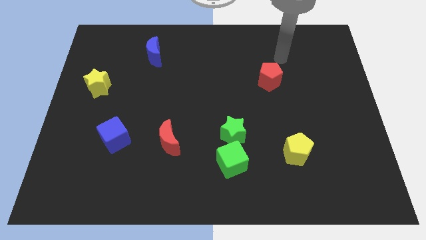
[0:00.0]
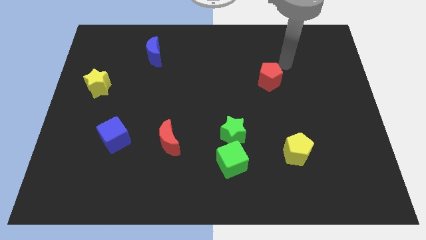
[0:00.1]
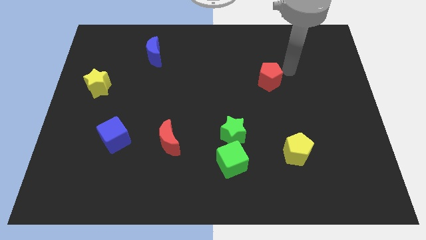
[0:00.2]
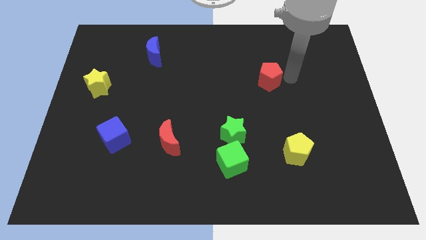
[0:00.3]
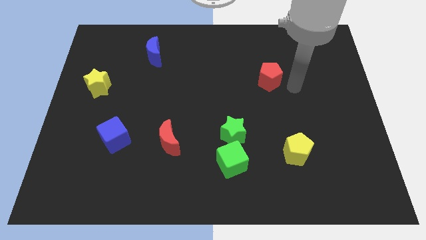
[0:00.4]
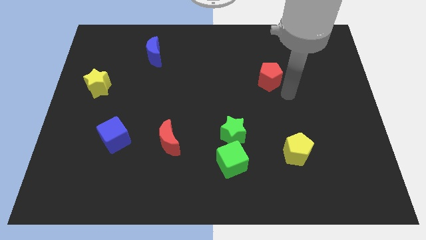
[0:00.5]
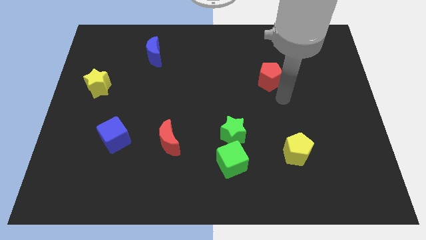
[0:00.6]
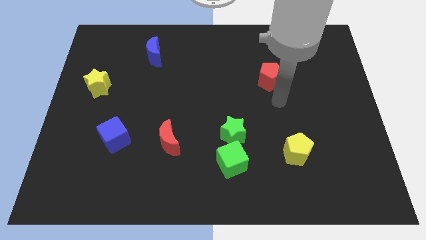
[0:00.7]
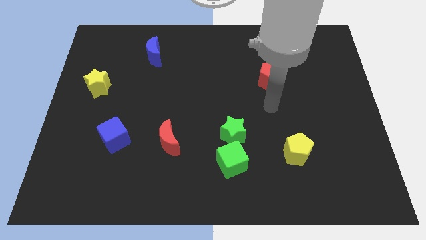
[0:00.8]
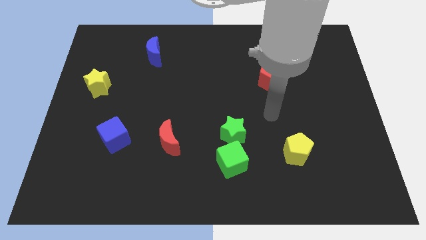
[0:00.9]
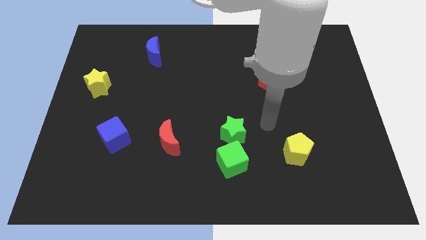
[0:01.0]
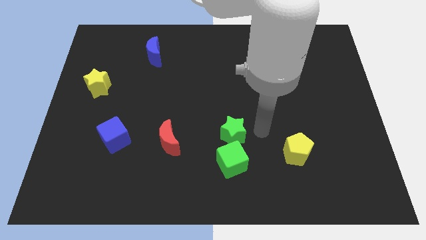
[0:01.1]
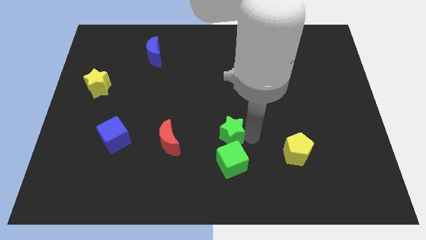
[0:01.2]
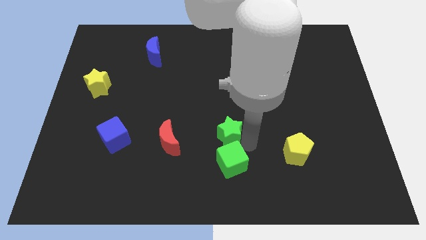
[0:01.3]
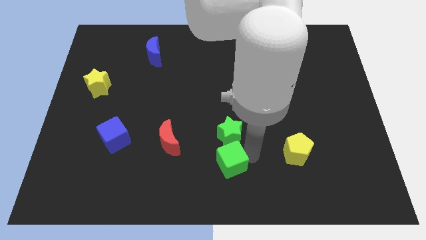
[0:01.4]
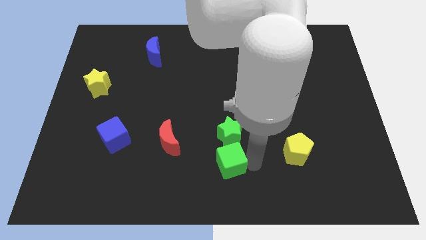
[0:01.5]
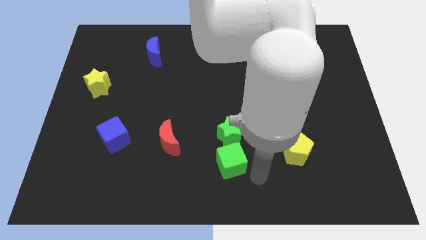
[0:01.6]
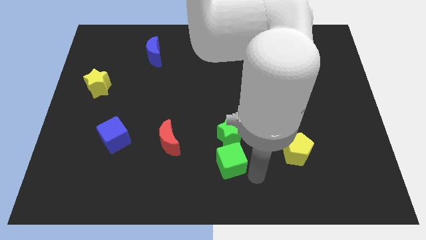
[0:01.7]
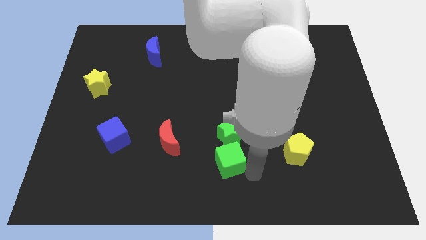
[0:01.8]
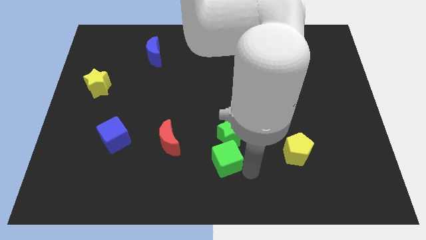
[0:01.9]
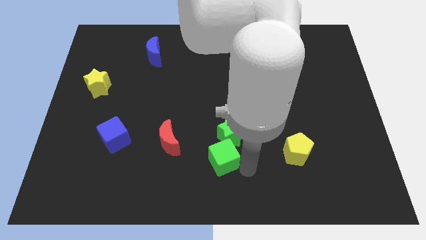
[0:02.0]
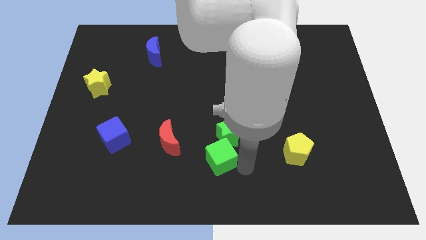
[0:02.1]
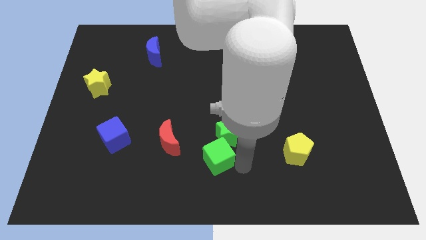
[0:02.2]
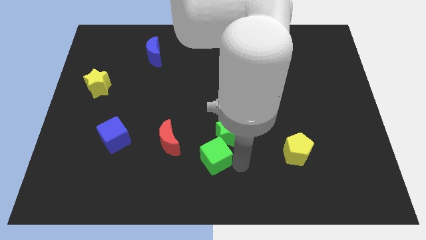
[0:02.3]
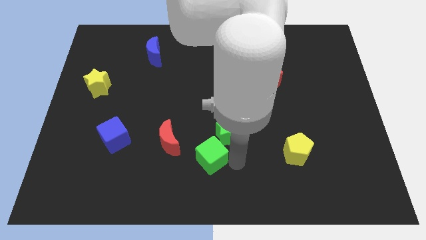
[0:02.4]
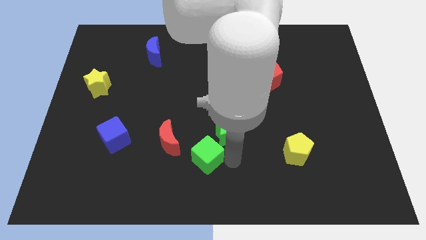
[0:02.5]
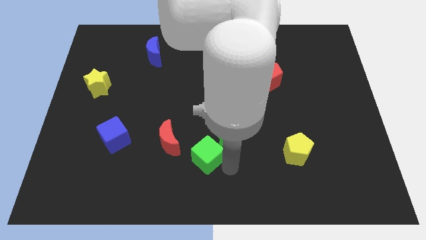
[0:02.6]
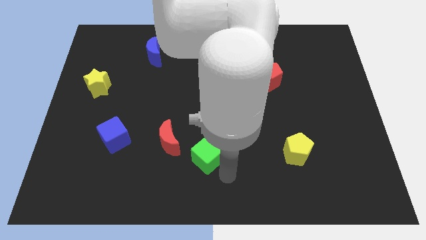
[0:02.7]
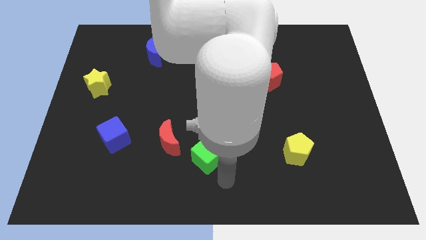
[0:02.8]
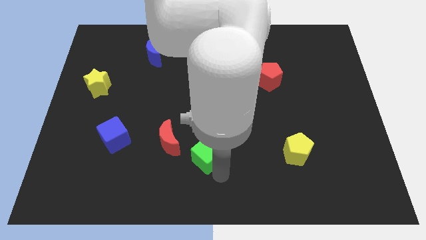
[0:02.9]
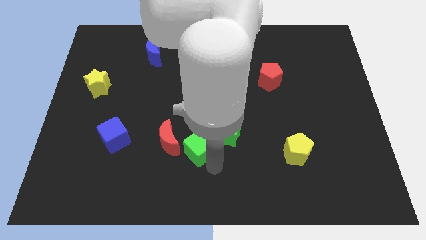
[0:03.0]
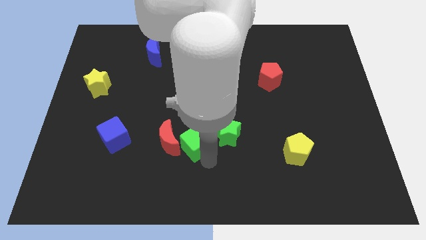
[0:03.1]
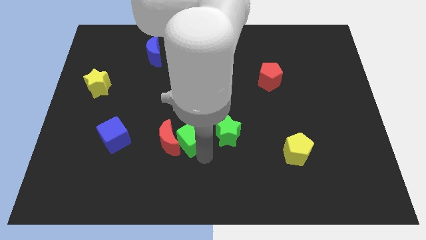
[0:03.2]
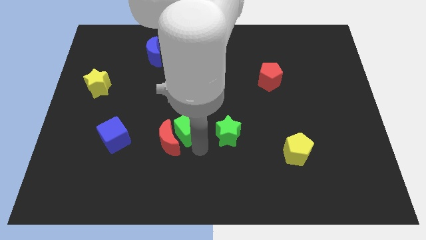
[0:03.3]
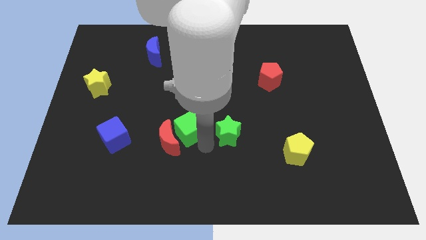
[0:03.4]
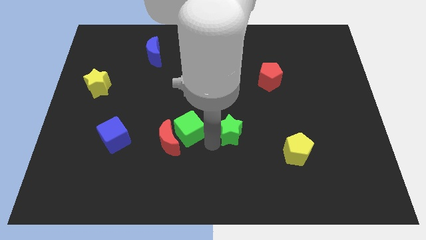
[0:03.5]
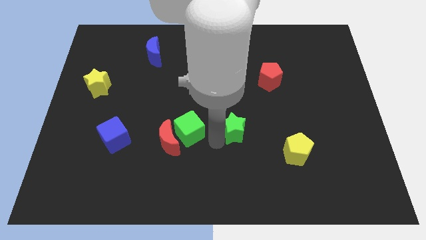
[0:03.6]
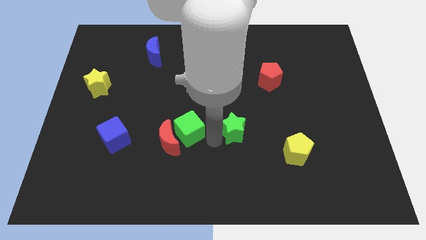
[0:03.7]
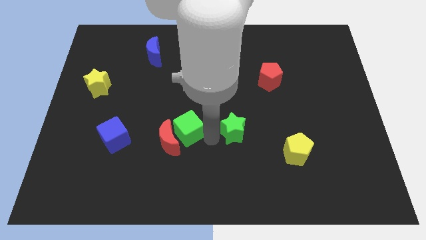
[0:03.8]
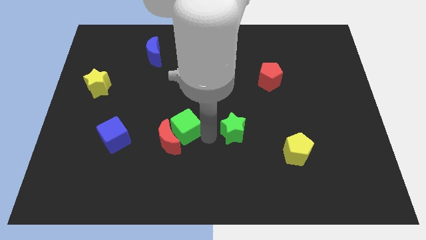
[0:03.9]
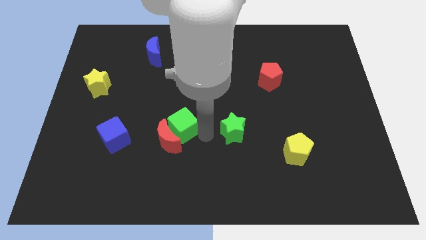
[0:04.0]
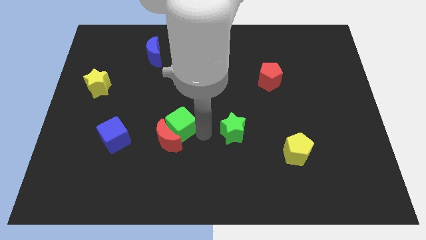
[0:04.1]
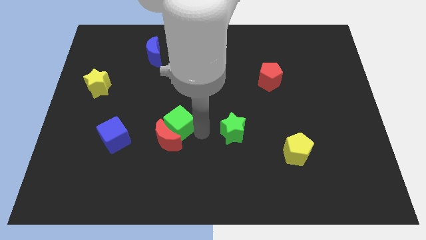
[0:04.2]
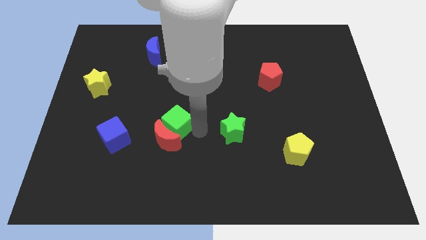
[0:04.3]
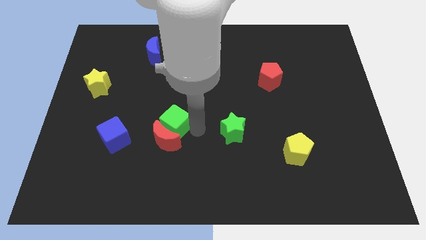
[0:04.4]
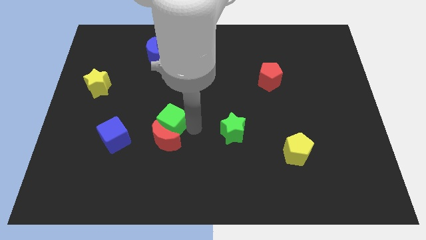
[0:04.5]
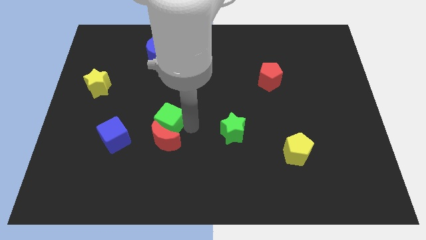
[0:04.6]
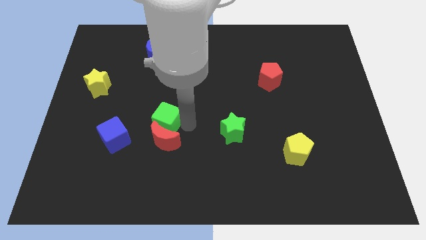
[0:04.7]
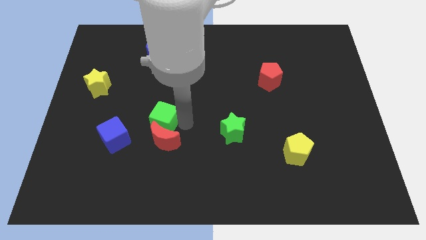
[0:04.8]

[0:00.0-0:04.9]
push the green cube to the top right of the blue cube

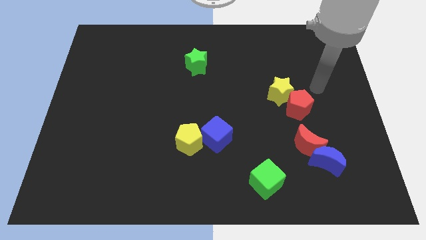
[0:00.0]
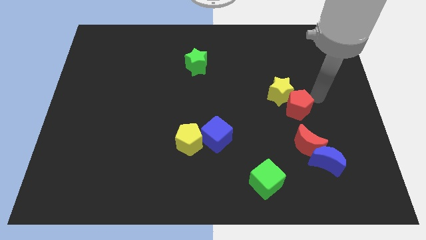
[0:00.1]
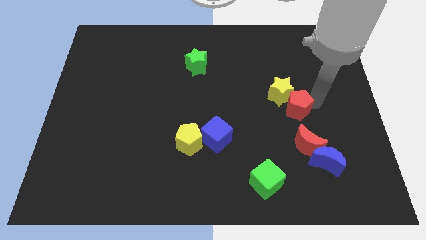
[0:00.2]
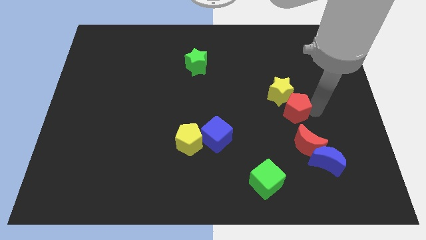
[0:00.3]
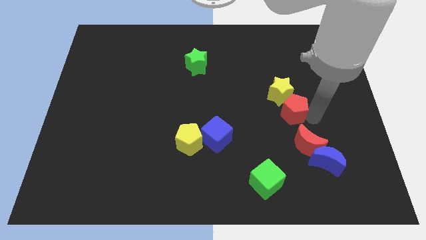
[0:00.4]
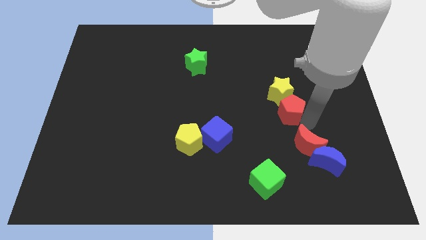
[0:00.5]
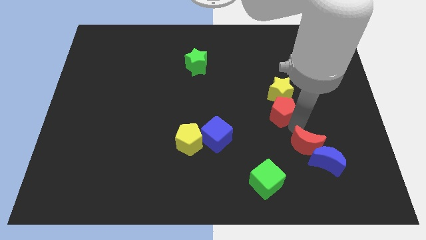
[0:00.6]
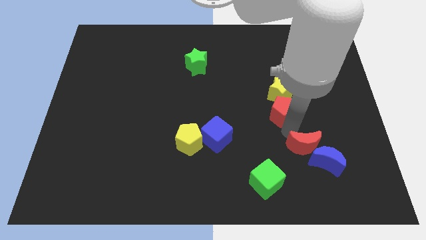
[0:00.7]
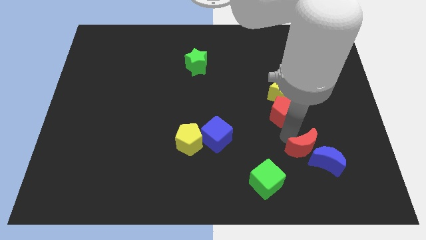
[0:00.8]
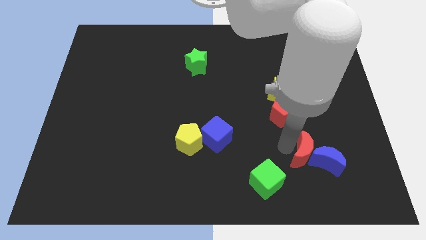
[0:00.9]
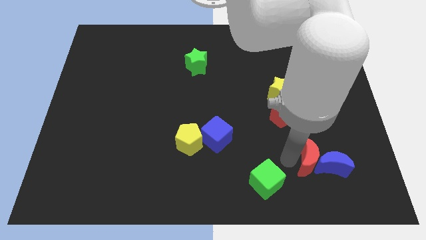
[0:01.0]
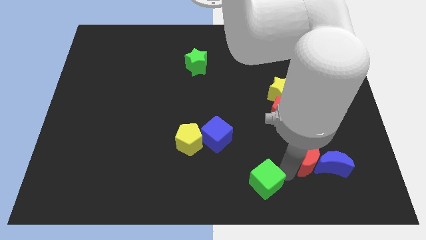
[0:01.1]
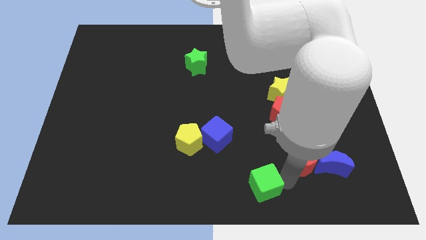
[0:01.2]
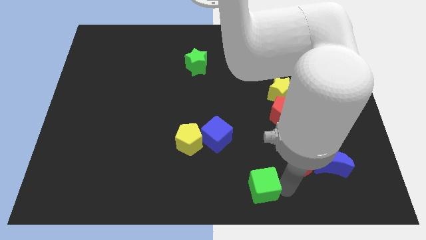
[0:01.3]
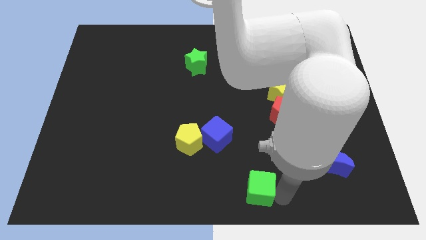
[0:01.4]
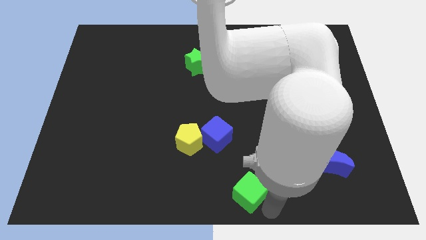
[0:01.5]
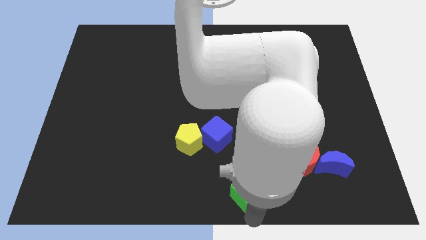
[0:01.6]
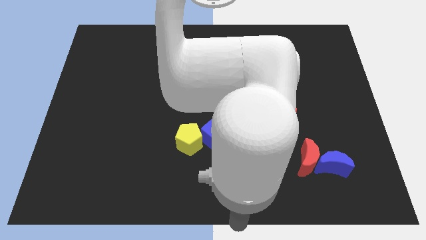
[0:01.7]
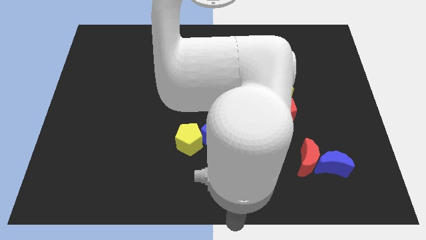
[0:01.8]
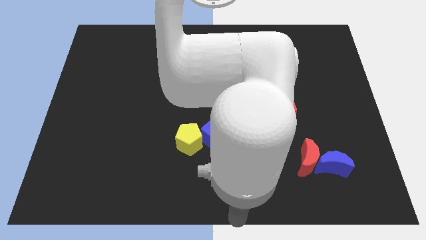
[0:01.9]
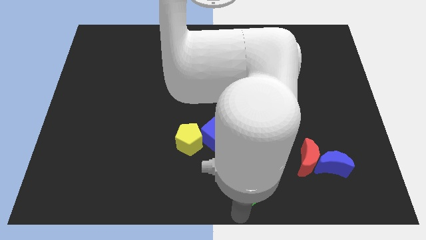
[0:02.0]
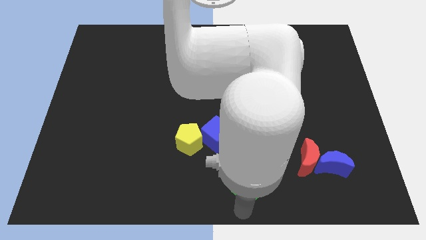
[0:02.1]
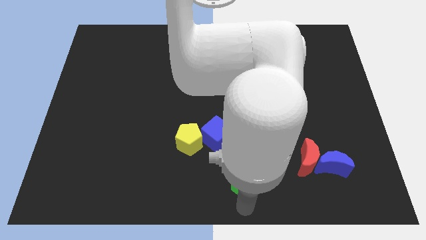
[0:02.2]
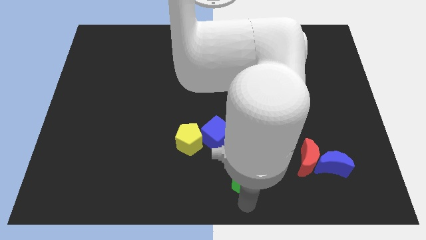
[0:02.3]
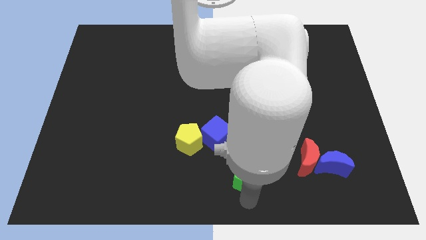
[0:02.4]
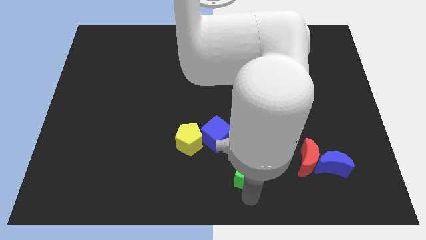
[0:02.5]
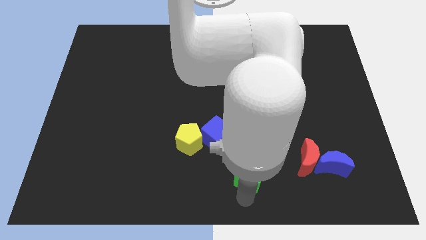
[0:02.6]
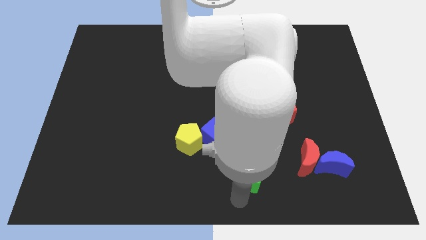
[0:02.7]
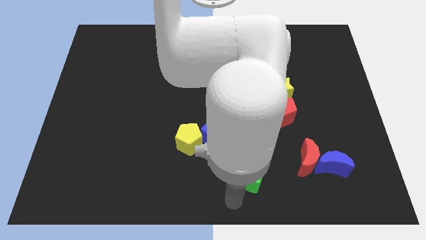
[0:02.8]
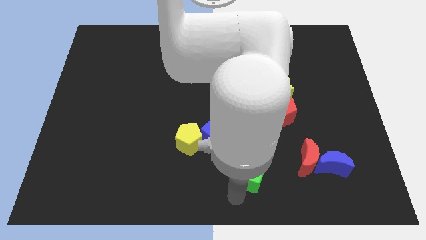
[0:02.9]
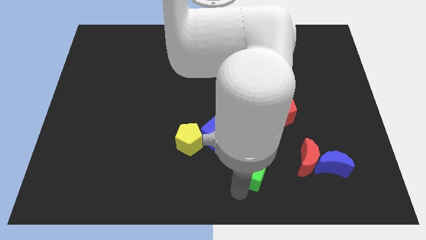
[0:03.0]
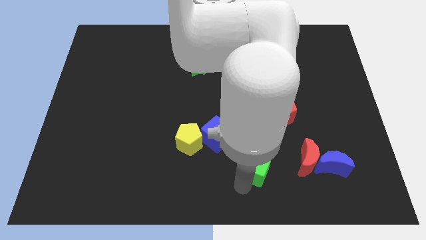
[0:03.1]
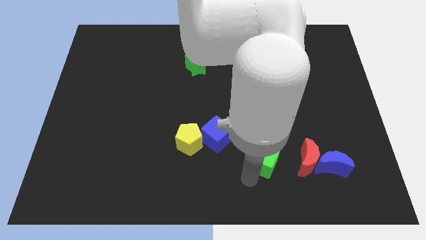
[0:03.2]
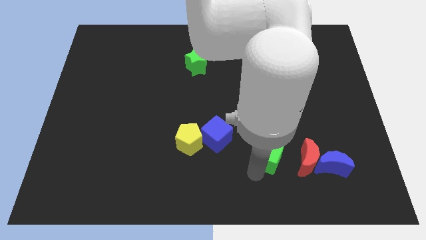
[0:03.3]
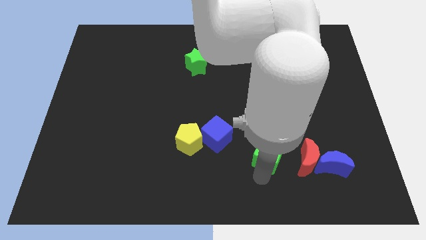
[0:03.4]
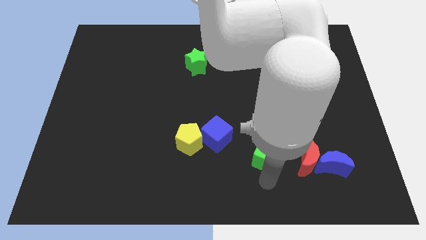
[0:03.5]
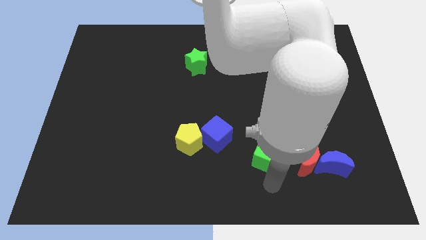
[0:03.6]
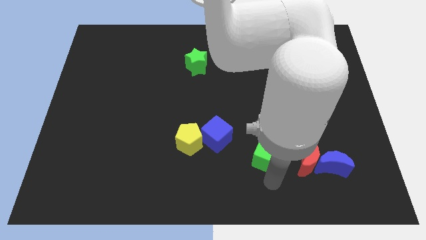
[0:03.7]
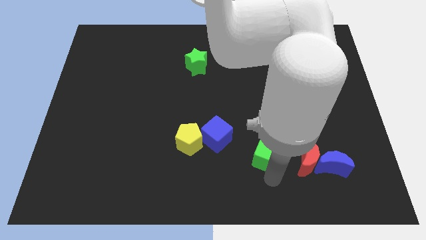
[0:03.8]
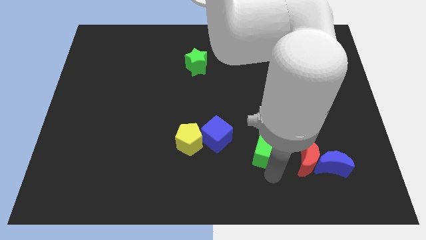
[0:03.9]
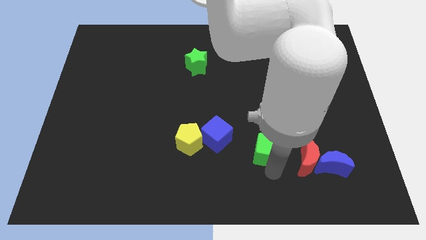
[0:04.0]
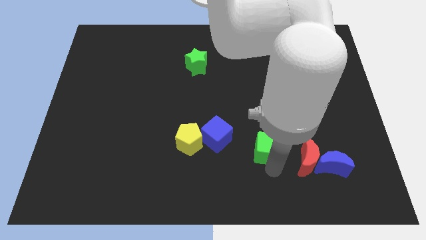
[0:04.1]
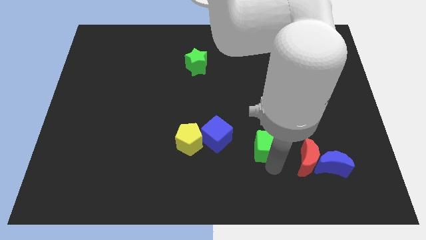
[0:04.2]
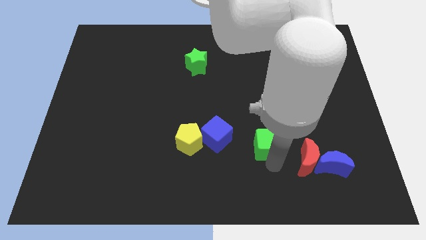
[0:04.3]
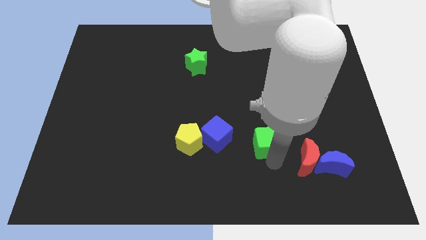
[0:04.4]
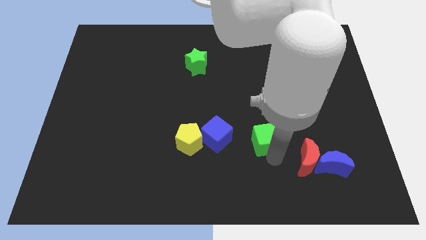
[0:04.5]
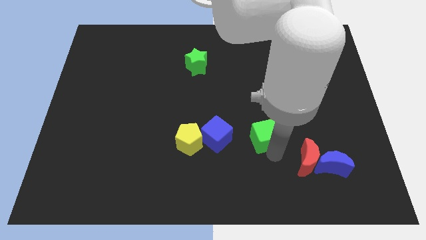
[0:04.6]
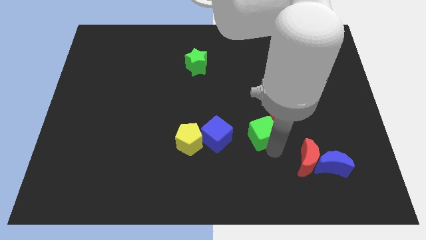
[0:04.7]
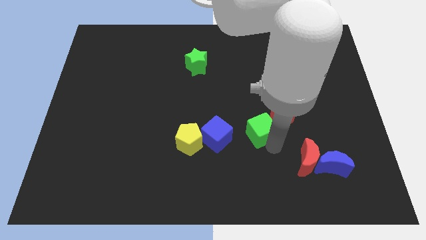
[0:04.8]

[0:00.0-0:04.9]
put the green cube just left of the red pentagon
